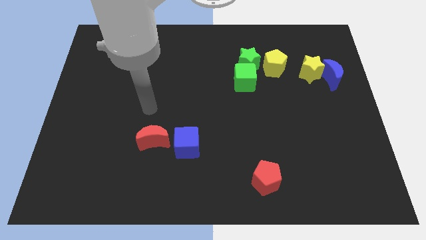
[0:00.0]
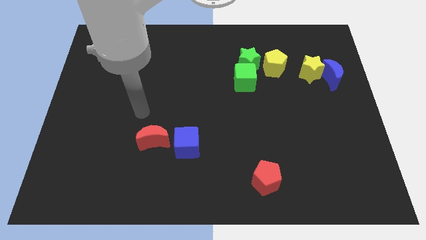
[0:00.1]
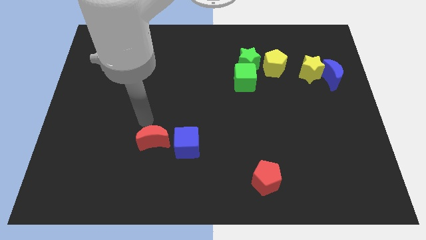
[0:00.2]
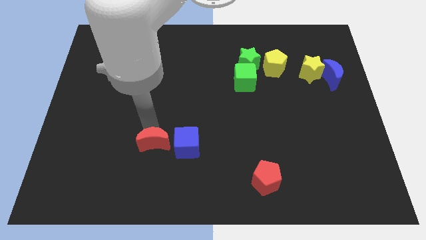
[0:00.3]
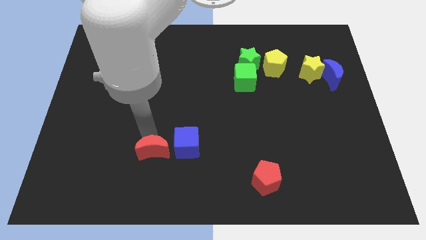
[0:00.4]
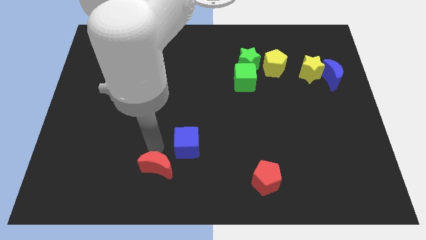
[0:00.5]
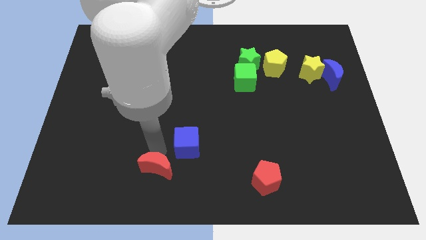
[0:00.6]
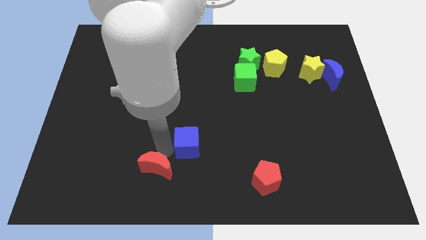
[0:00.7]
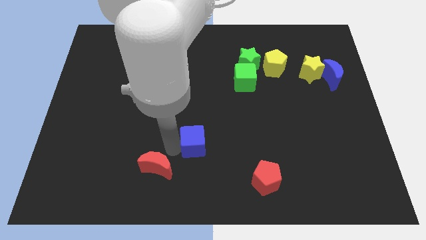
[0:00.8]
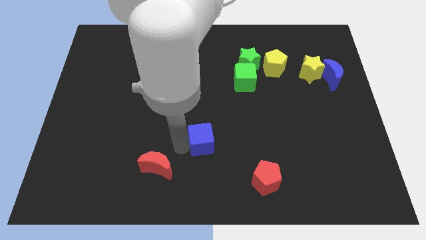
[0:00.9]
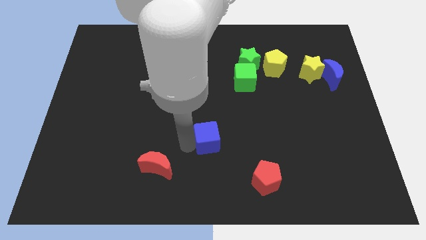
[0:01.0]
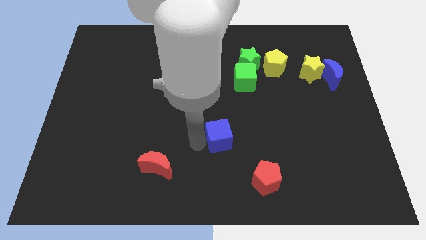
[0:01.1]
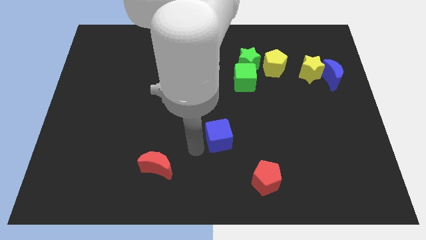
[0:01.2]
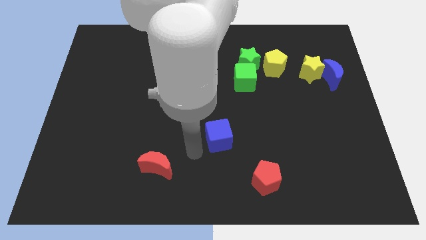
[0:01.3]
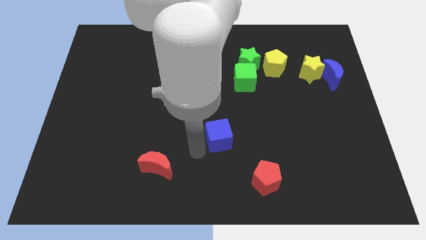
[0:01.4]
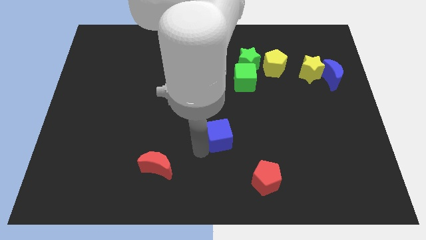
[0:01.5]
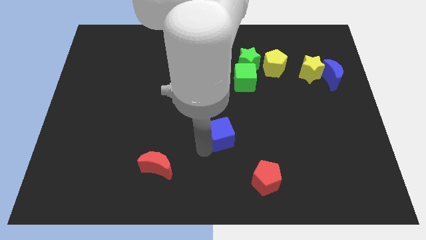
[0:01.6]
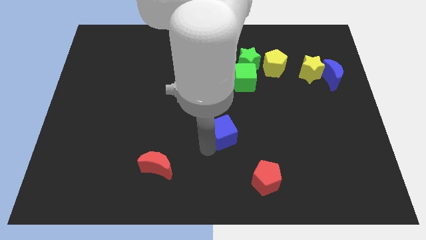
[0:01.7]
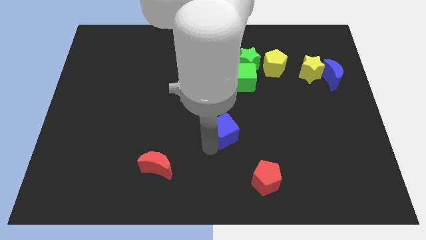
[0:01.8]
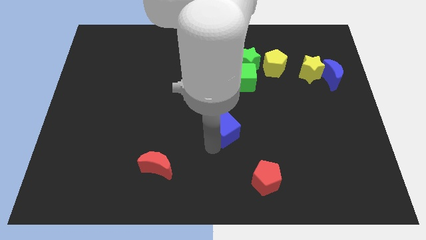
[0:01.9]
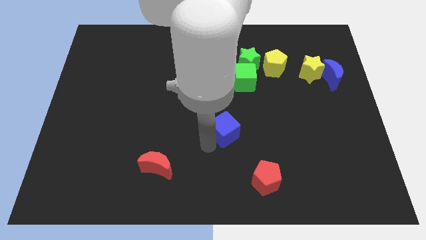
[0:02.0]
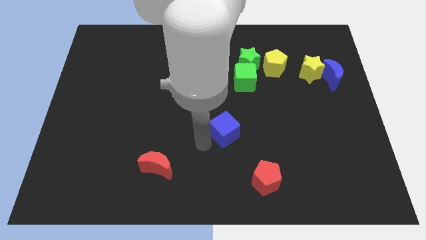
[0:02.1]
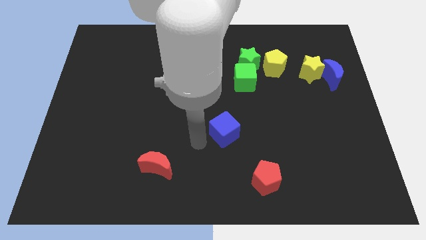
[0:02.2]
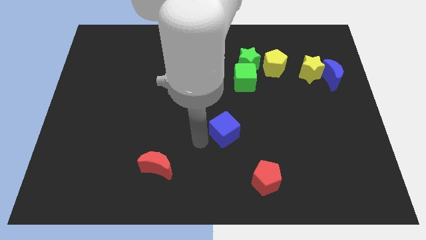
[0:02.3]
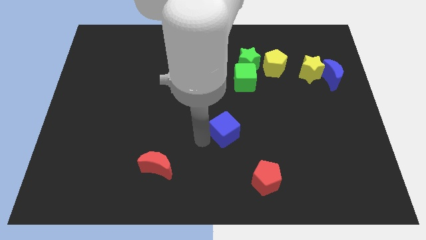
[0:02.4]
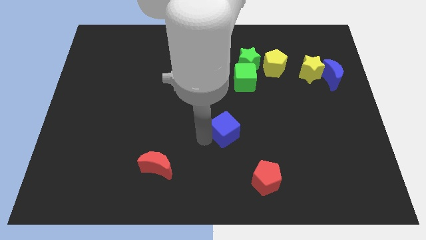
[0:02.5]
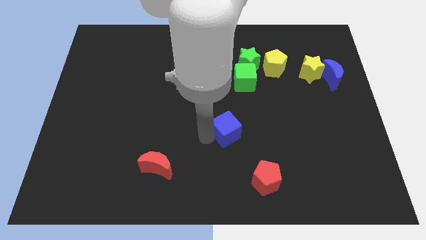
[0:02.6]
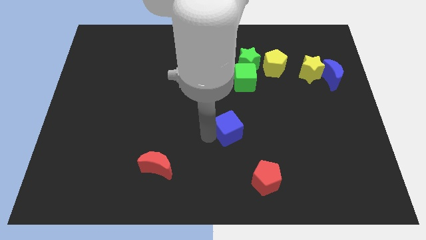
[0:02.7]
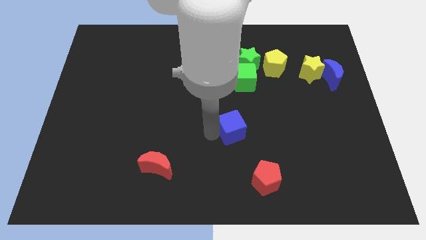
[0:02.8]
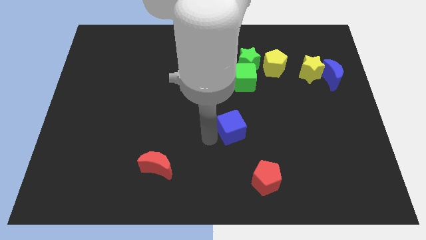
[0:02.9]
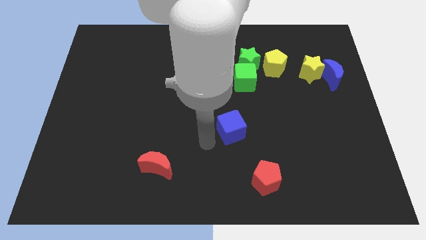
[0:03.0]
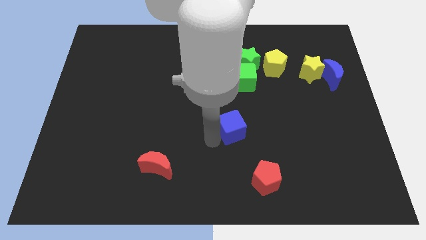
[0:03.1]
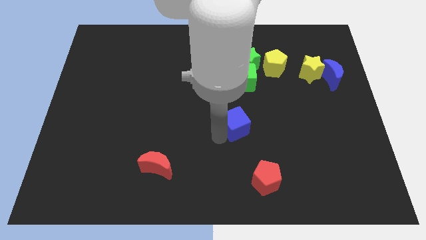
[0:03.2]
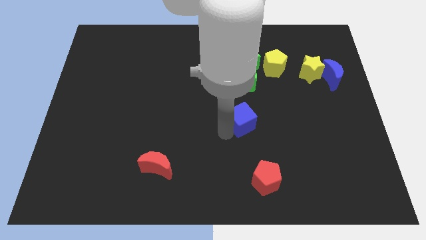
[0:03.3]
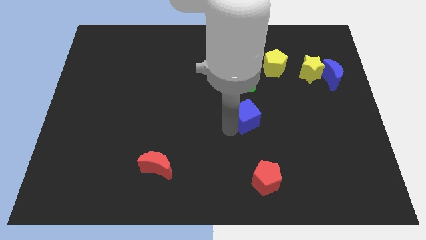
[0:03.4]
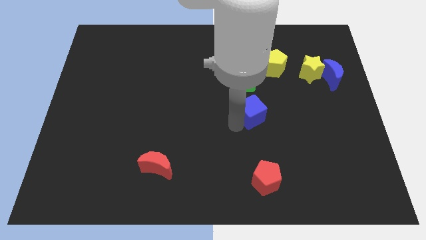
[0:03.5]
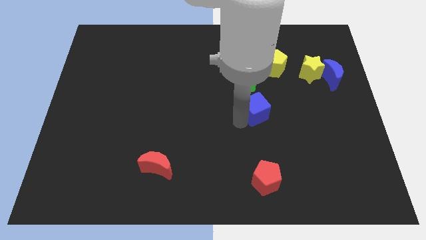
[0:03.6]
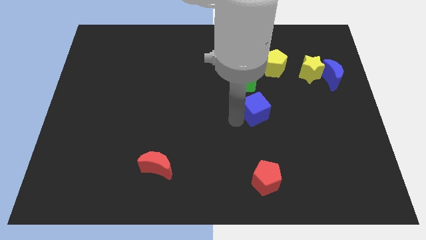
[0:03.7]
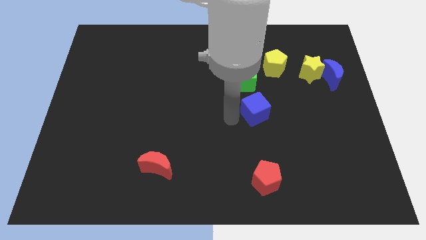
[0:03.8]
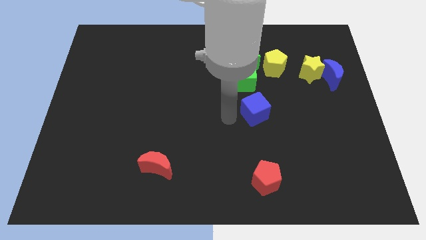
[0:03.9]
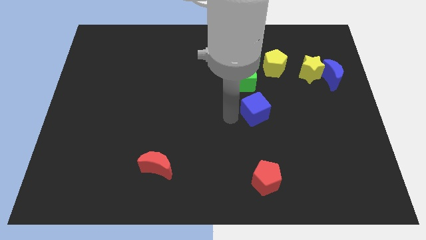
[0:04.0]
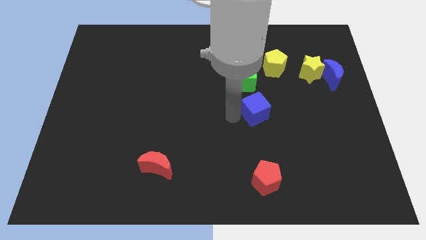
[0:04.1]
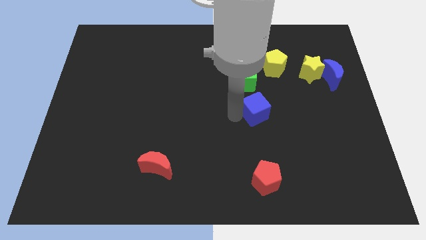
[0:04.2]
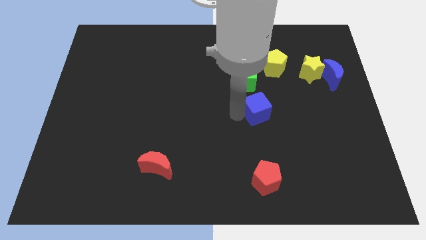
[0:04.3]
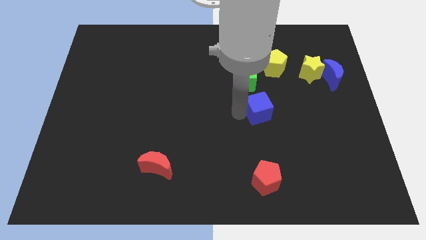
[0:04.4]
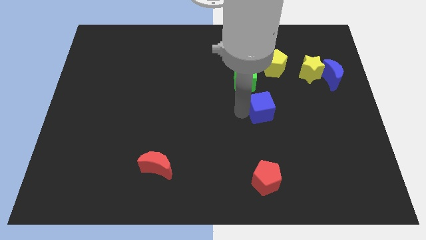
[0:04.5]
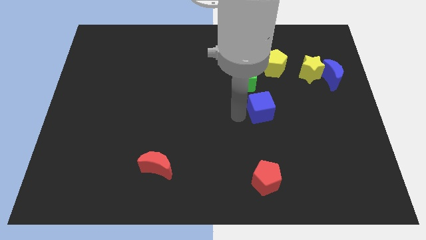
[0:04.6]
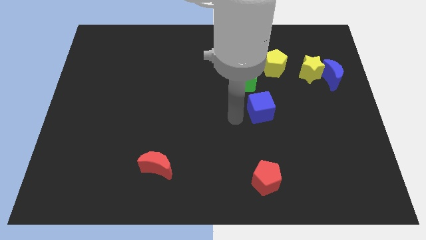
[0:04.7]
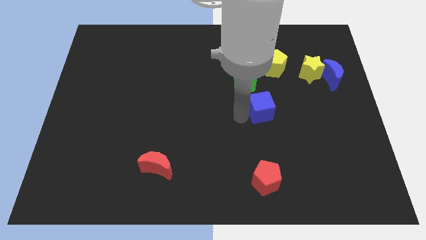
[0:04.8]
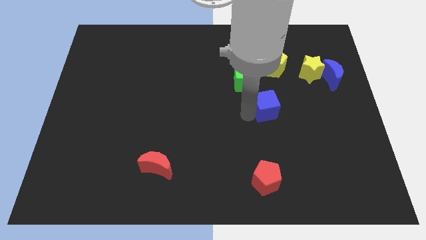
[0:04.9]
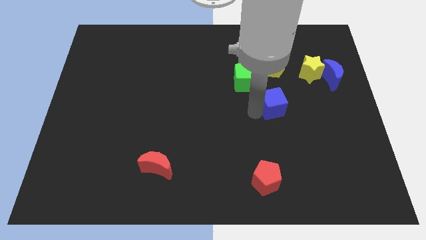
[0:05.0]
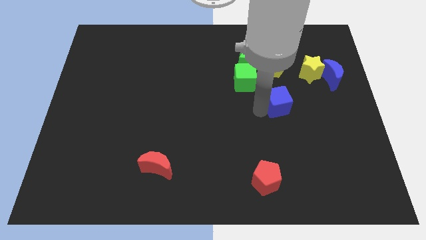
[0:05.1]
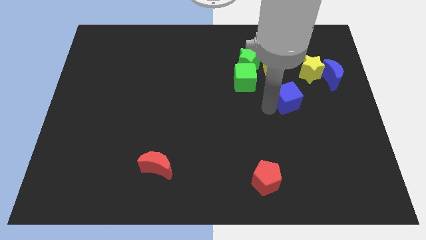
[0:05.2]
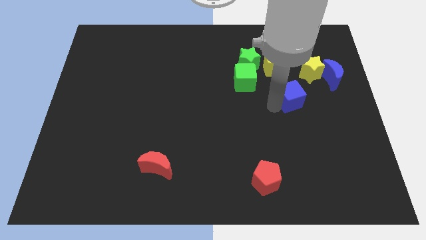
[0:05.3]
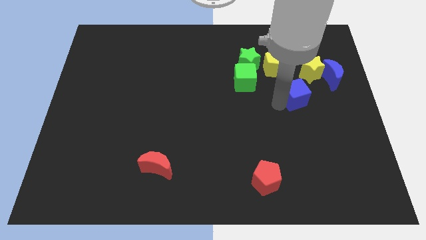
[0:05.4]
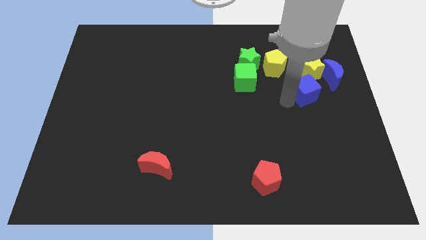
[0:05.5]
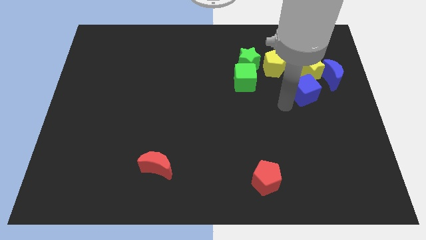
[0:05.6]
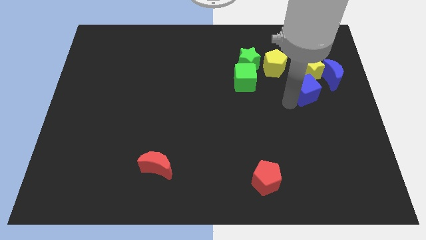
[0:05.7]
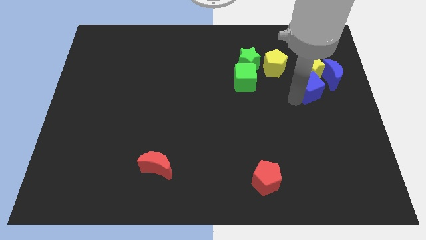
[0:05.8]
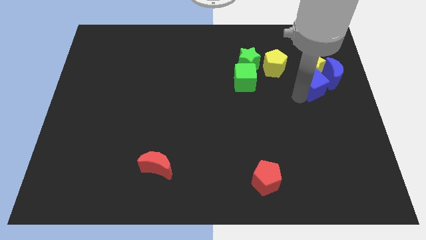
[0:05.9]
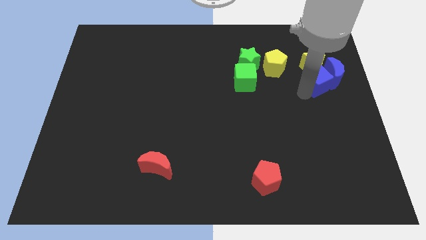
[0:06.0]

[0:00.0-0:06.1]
move the blue cube to the blue moon
